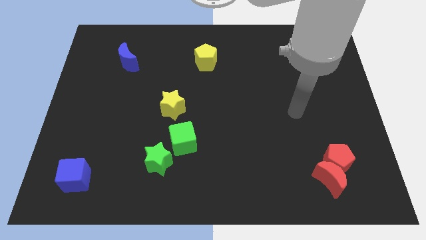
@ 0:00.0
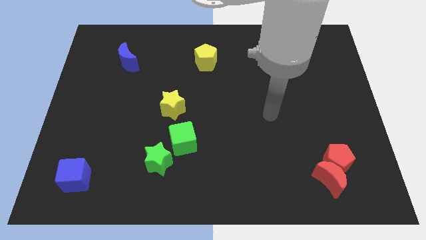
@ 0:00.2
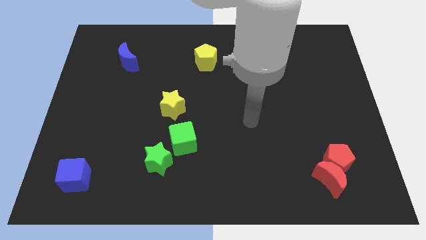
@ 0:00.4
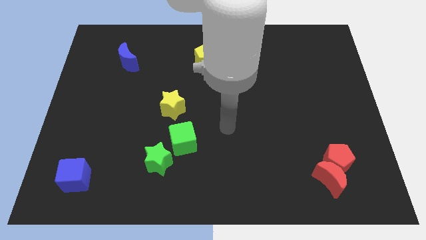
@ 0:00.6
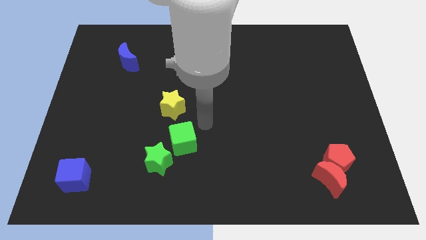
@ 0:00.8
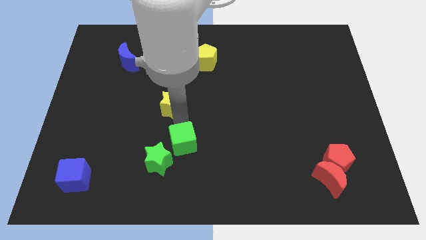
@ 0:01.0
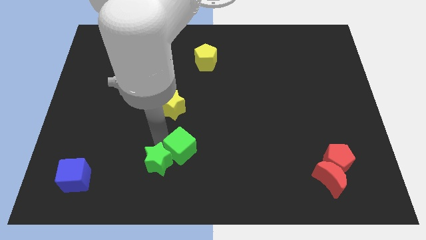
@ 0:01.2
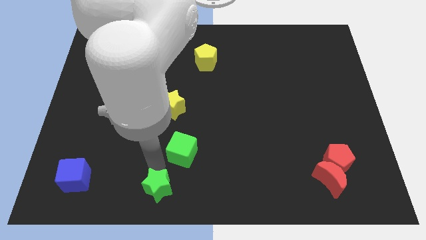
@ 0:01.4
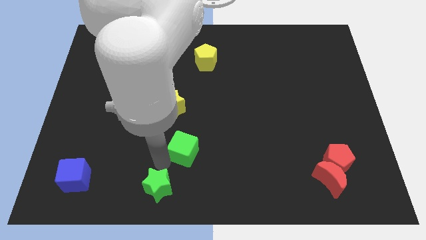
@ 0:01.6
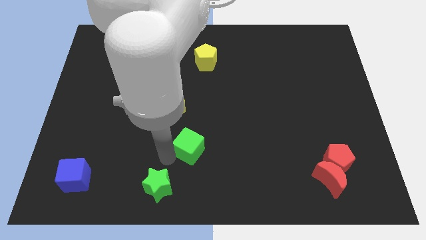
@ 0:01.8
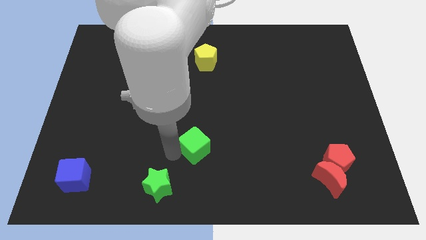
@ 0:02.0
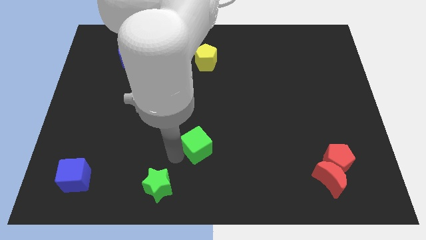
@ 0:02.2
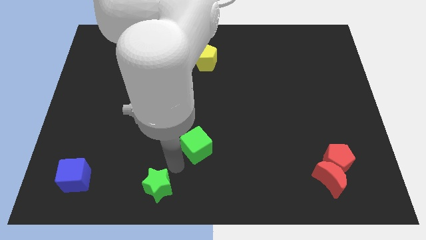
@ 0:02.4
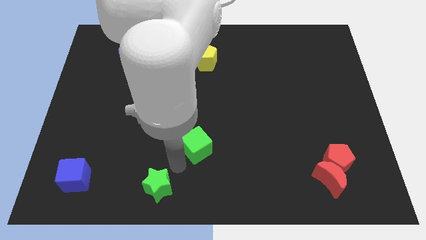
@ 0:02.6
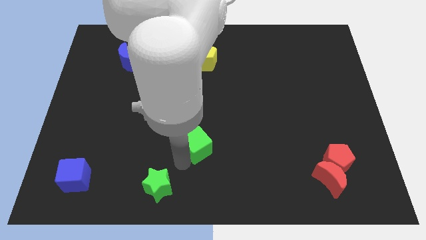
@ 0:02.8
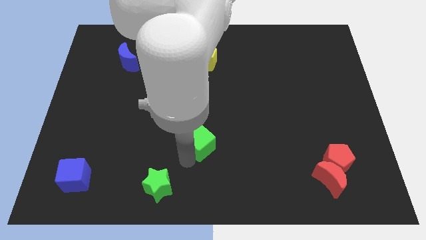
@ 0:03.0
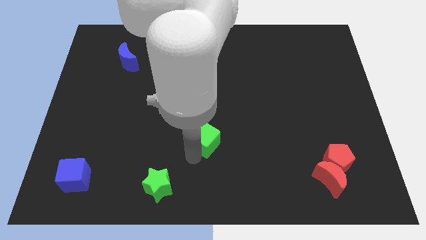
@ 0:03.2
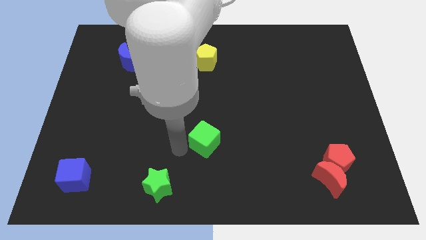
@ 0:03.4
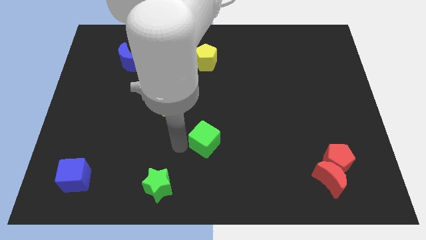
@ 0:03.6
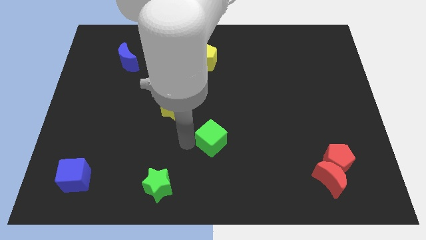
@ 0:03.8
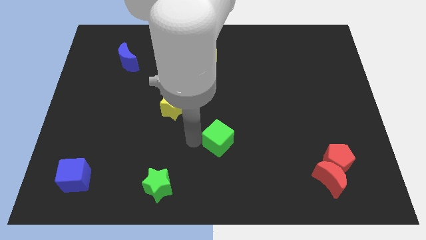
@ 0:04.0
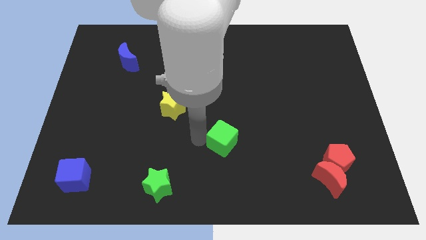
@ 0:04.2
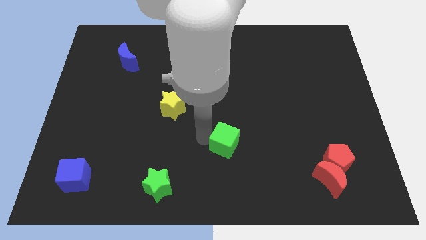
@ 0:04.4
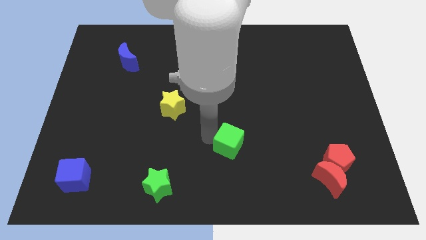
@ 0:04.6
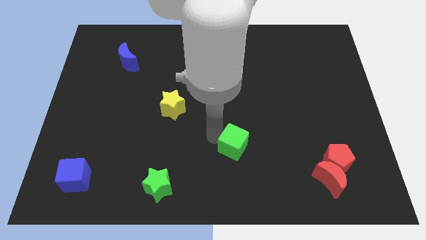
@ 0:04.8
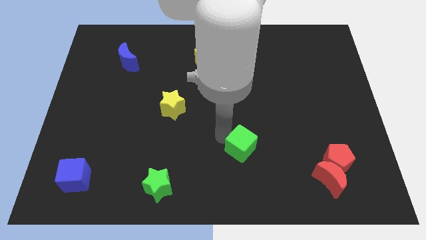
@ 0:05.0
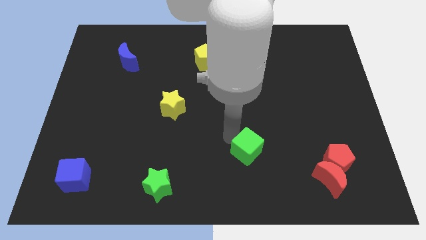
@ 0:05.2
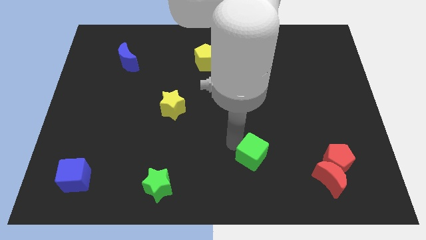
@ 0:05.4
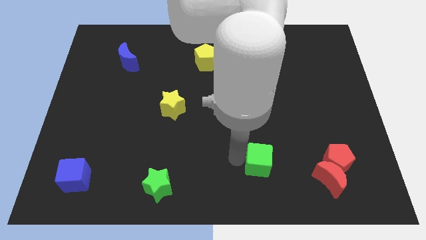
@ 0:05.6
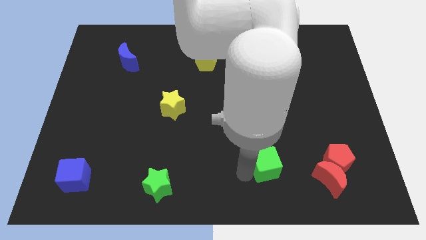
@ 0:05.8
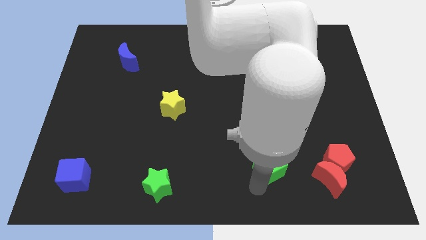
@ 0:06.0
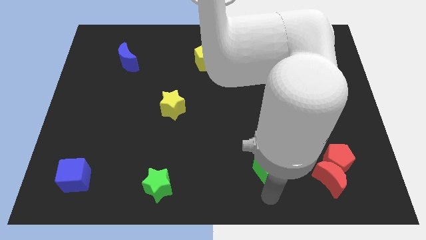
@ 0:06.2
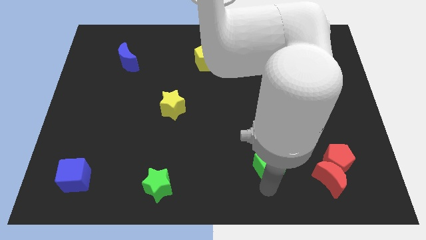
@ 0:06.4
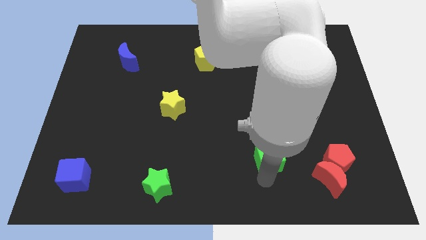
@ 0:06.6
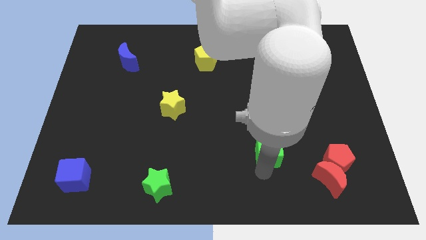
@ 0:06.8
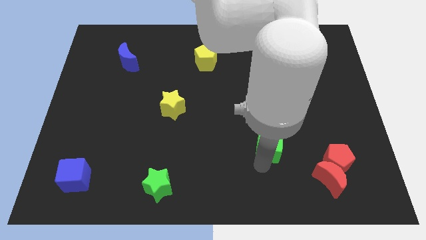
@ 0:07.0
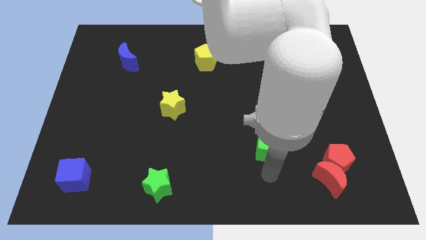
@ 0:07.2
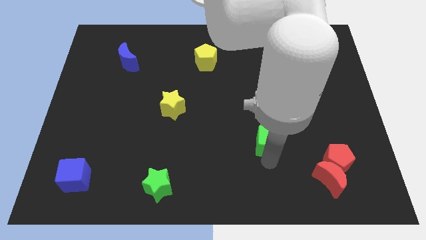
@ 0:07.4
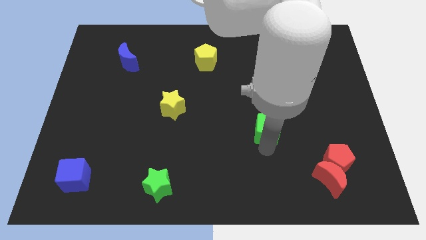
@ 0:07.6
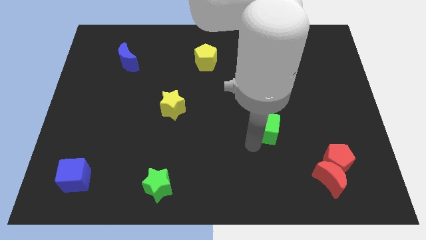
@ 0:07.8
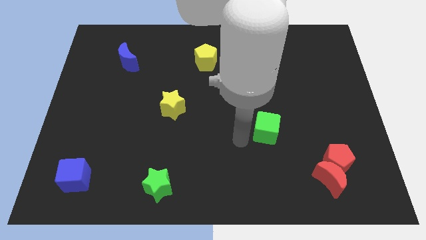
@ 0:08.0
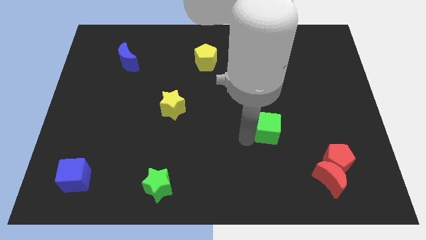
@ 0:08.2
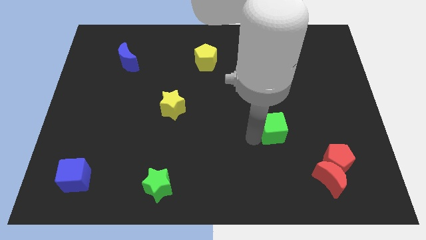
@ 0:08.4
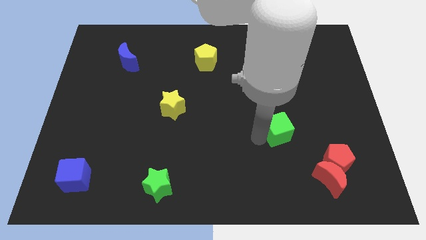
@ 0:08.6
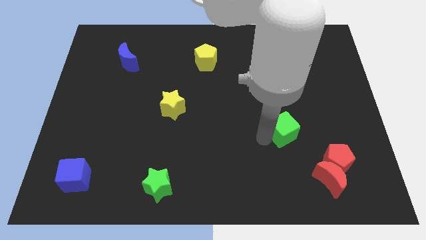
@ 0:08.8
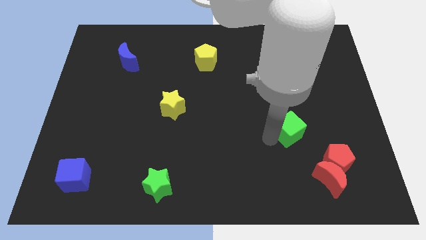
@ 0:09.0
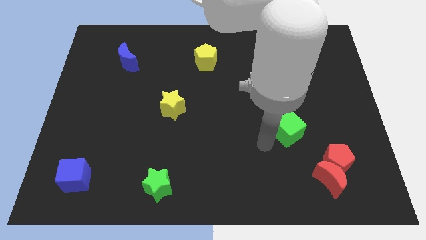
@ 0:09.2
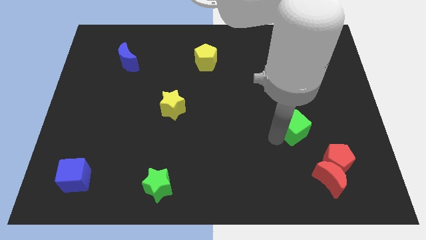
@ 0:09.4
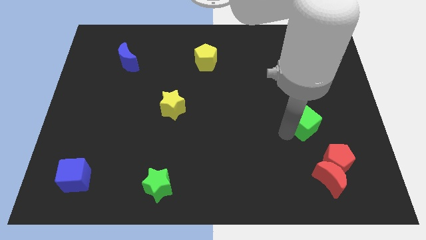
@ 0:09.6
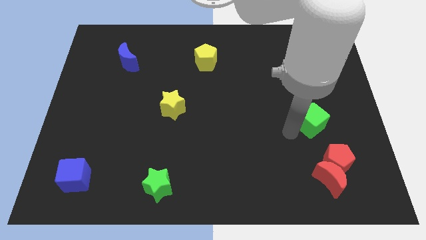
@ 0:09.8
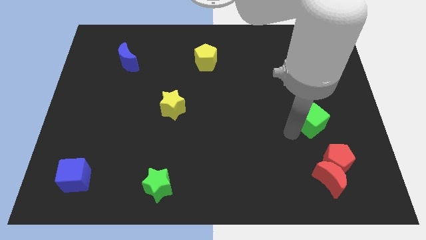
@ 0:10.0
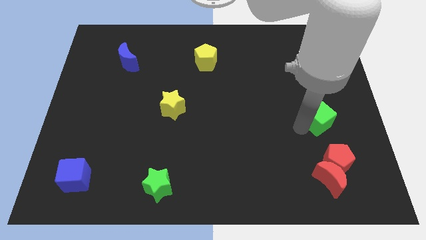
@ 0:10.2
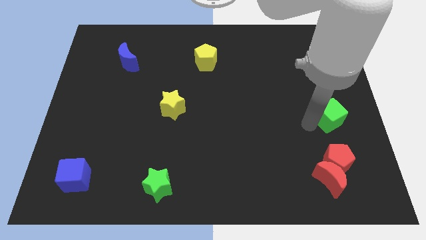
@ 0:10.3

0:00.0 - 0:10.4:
put the green cube to the center right

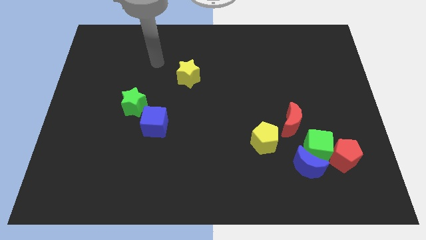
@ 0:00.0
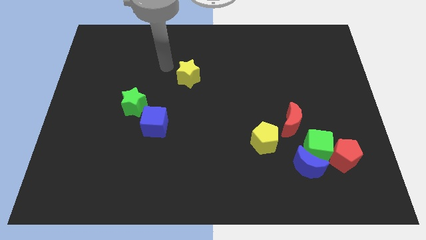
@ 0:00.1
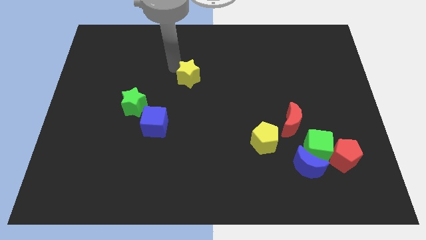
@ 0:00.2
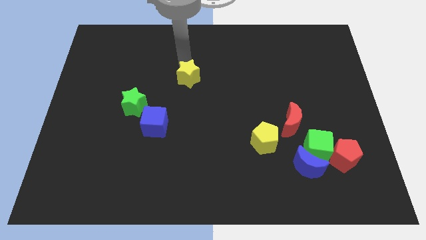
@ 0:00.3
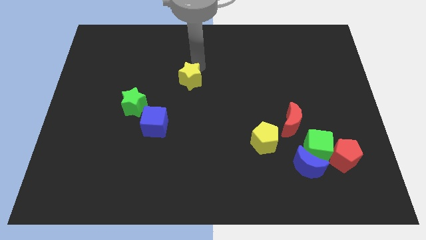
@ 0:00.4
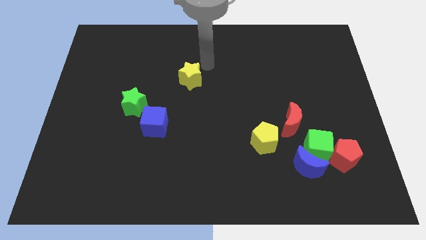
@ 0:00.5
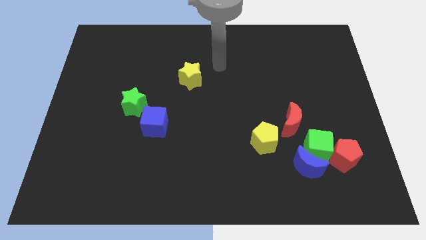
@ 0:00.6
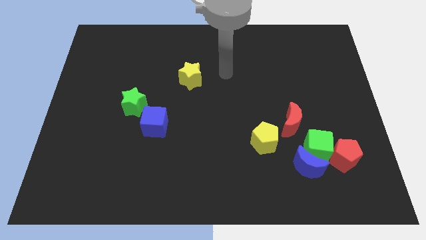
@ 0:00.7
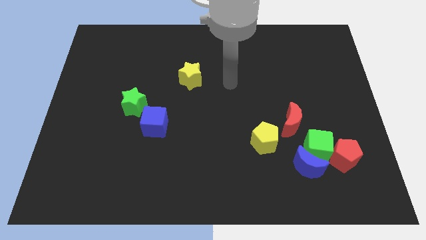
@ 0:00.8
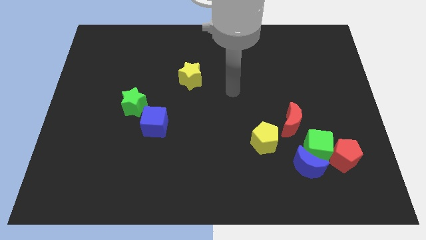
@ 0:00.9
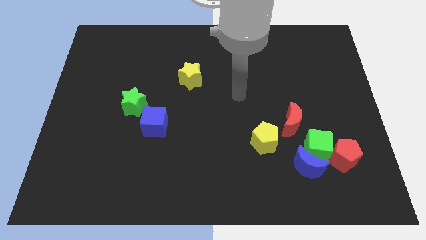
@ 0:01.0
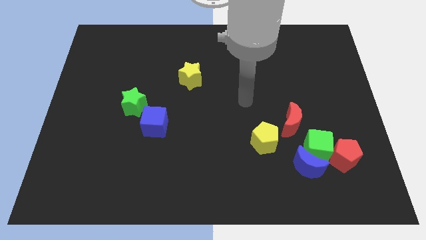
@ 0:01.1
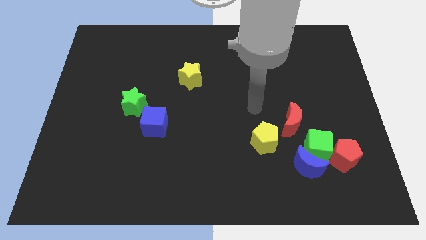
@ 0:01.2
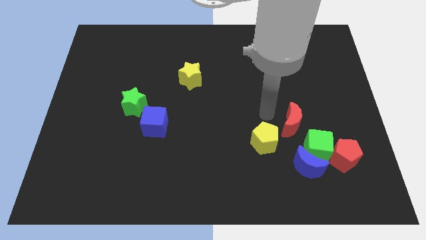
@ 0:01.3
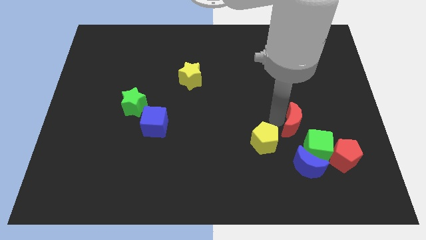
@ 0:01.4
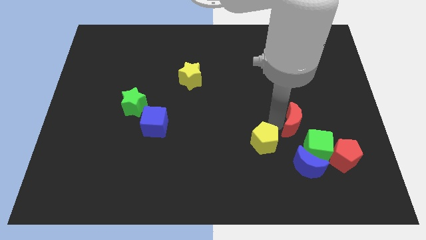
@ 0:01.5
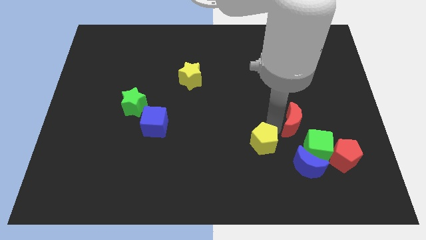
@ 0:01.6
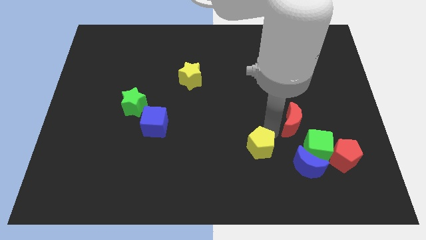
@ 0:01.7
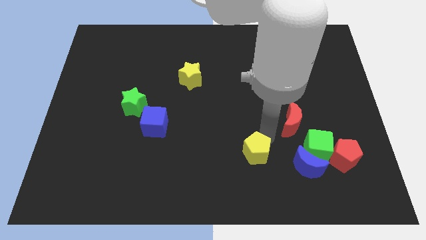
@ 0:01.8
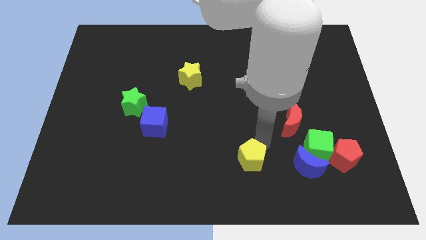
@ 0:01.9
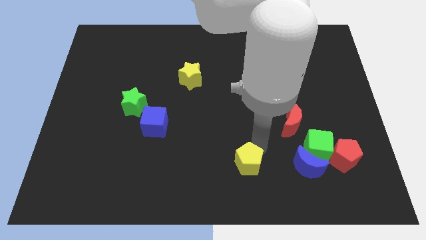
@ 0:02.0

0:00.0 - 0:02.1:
move the yellow pentagon to the bottom side
